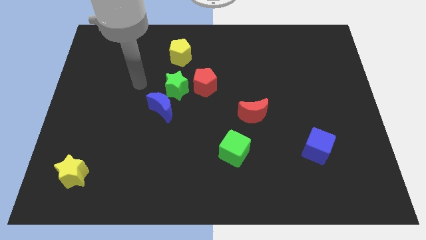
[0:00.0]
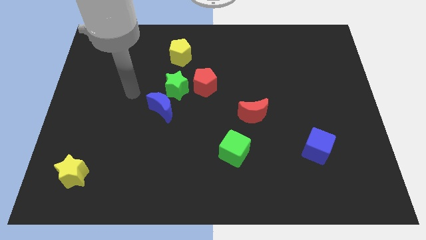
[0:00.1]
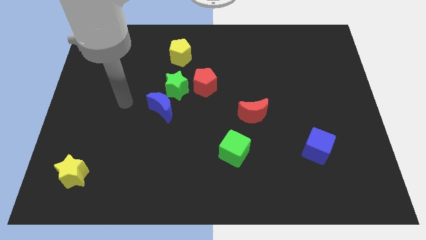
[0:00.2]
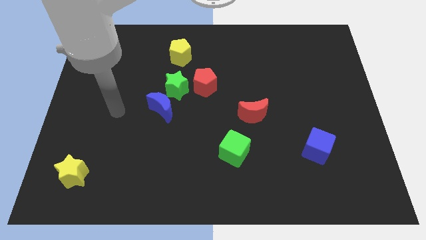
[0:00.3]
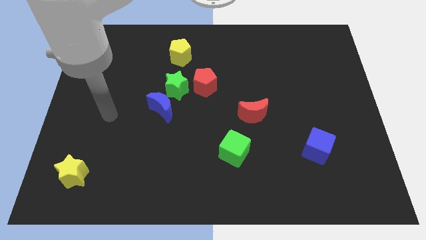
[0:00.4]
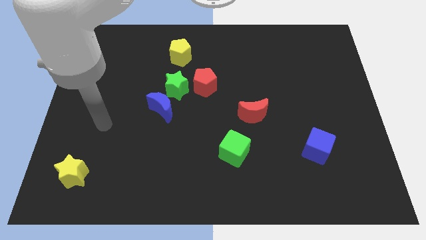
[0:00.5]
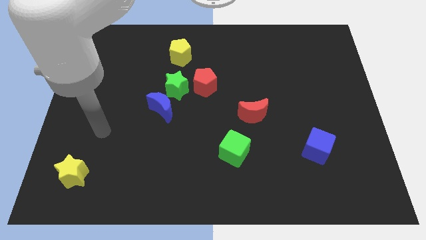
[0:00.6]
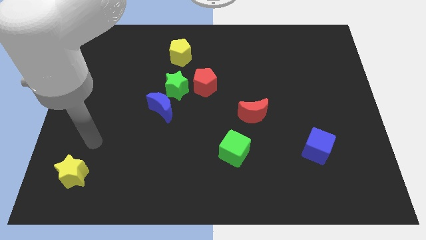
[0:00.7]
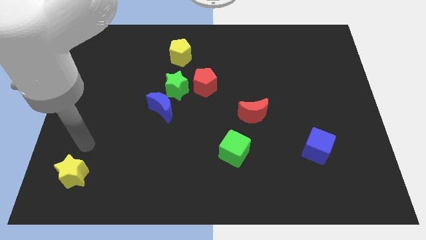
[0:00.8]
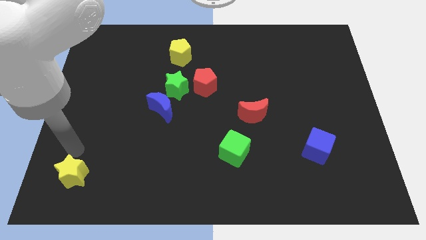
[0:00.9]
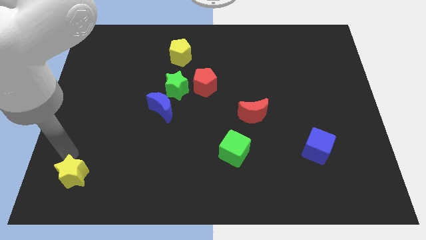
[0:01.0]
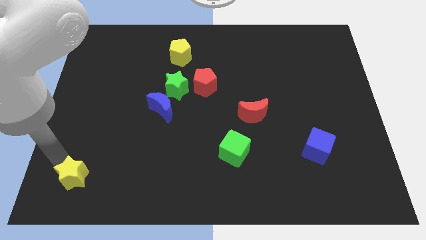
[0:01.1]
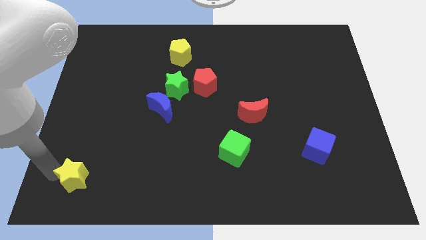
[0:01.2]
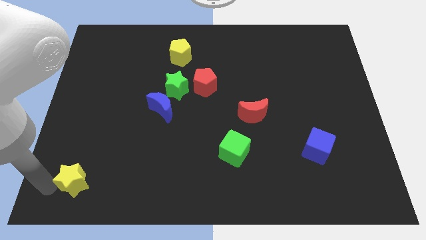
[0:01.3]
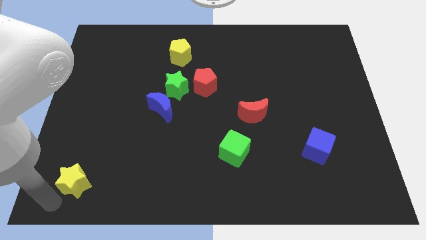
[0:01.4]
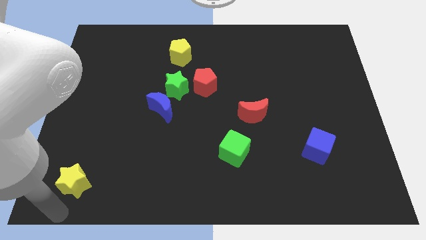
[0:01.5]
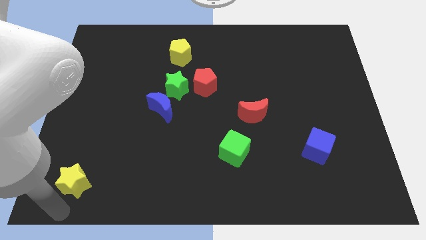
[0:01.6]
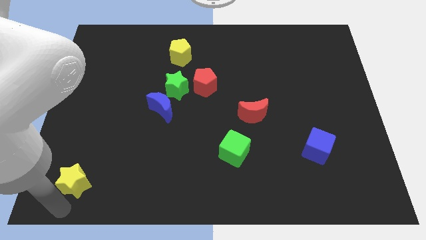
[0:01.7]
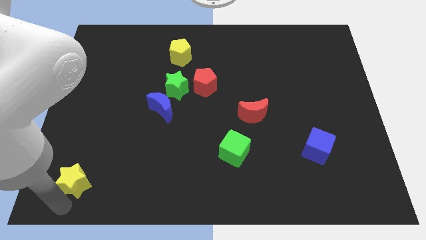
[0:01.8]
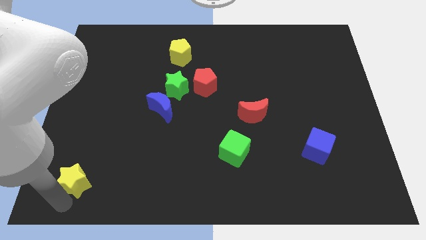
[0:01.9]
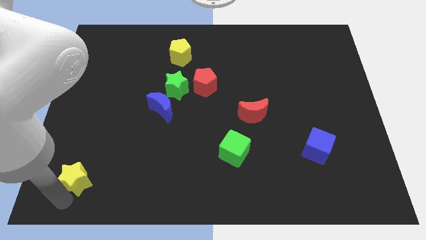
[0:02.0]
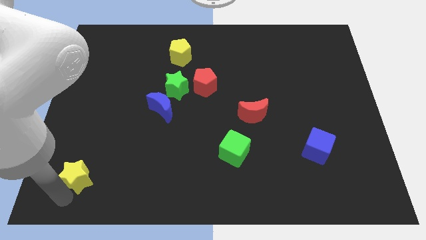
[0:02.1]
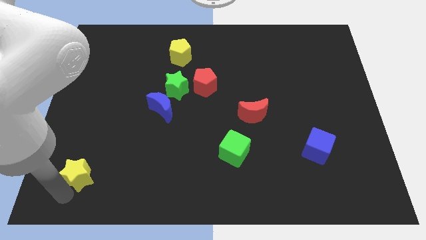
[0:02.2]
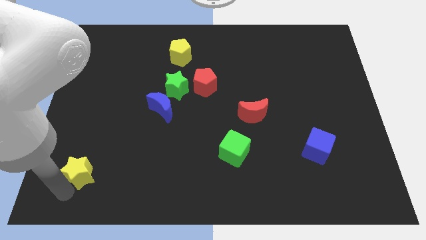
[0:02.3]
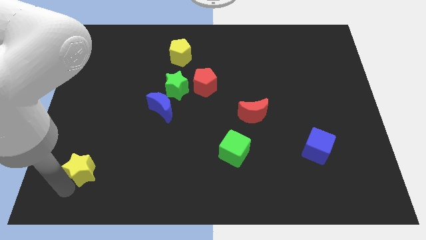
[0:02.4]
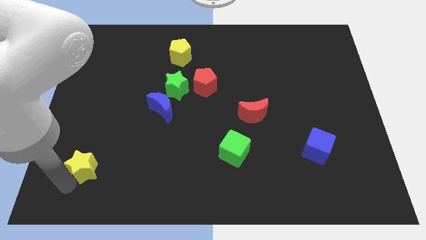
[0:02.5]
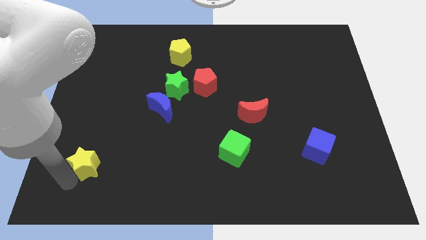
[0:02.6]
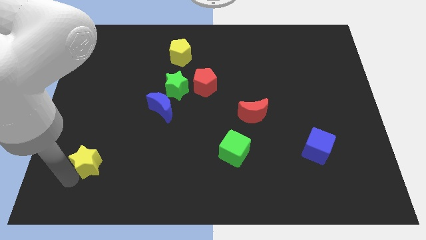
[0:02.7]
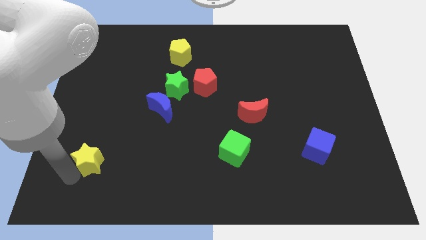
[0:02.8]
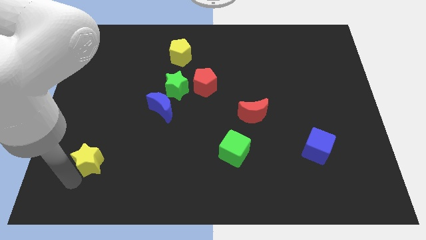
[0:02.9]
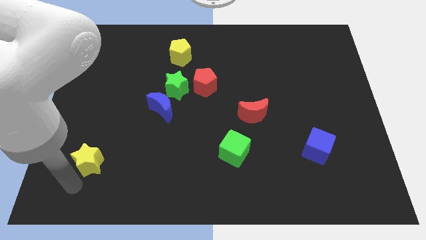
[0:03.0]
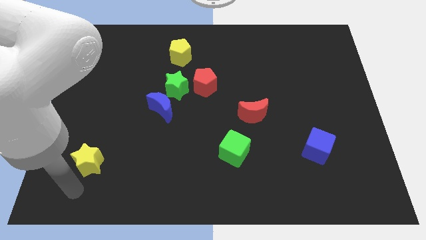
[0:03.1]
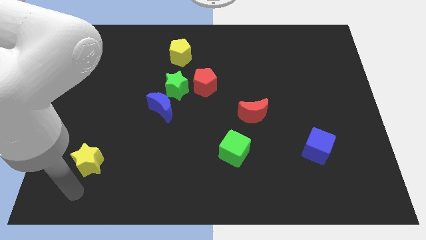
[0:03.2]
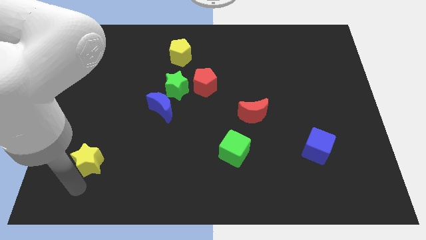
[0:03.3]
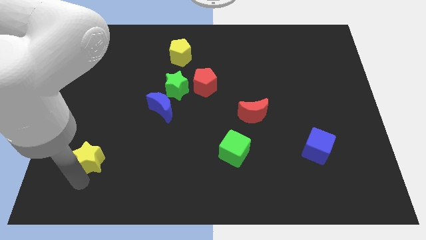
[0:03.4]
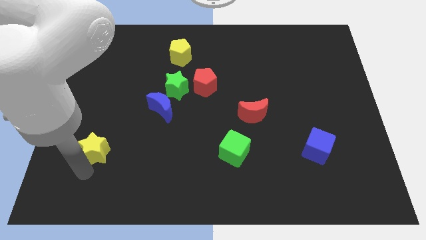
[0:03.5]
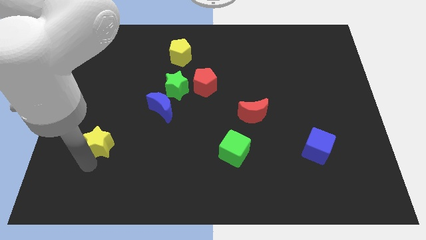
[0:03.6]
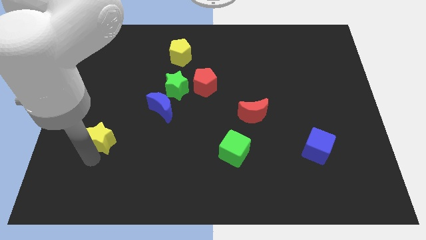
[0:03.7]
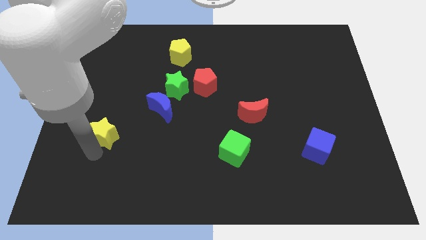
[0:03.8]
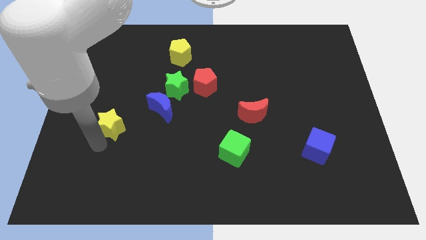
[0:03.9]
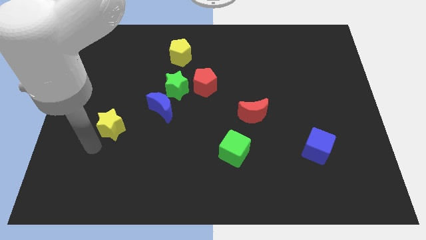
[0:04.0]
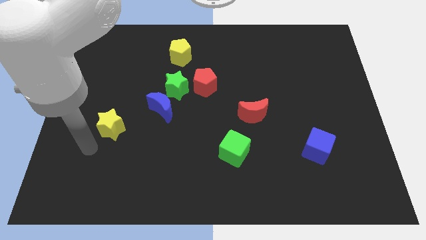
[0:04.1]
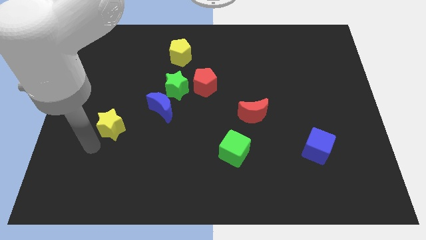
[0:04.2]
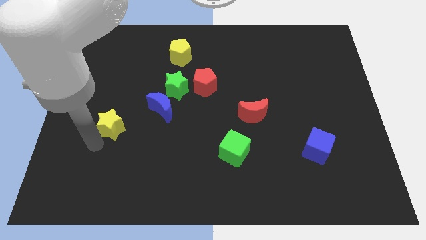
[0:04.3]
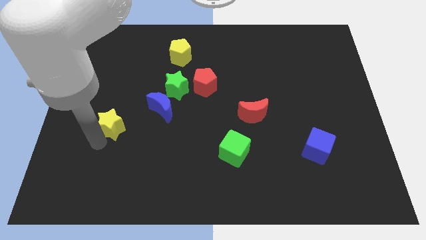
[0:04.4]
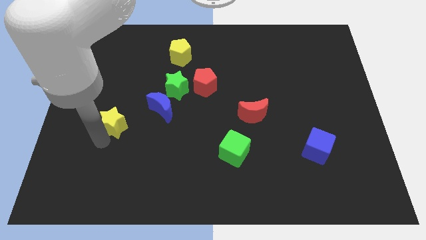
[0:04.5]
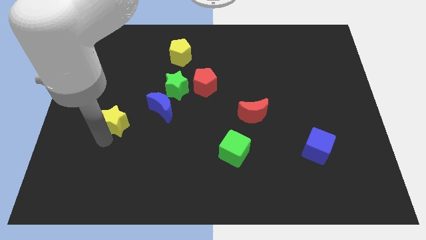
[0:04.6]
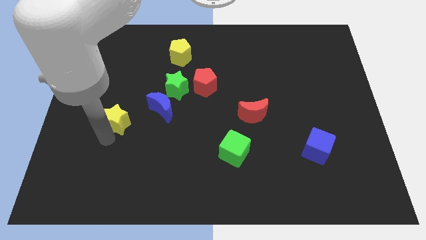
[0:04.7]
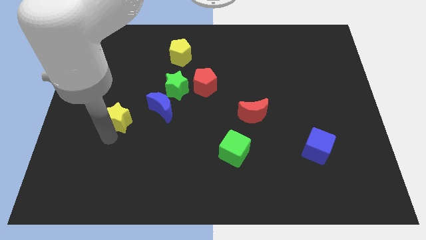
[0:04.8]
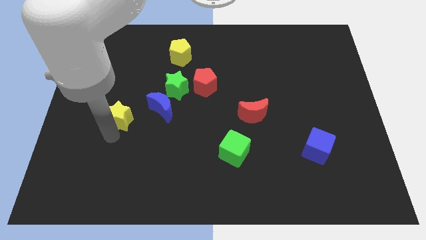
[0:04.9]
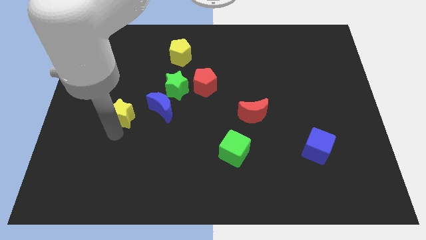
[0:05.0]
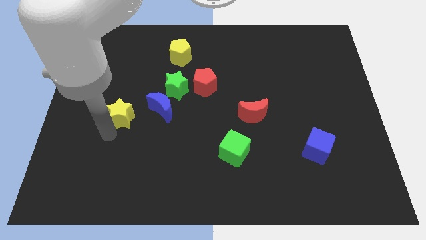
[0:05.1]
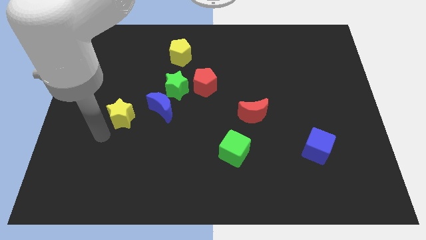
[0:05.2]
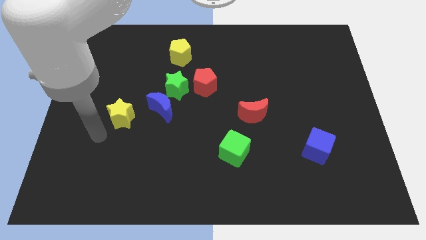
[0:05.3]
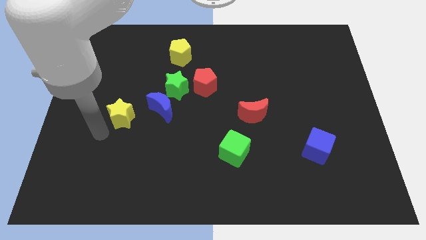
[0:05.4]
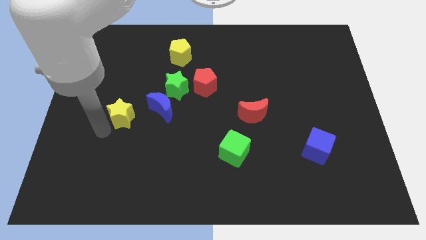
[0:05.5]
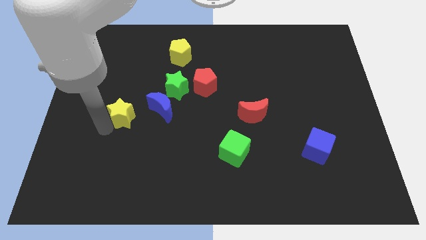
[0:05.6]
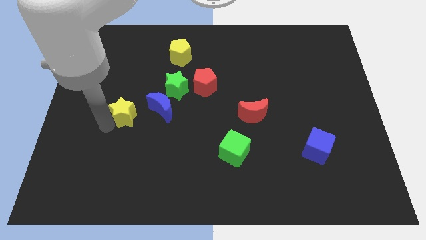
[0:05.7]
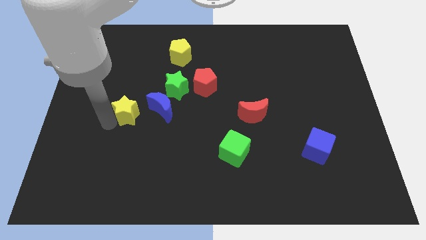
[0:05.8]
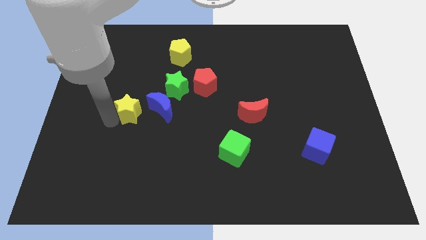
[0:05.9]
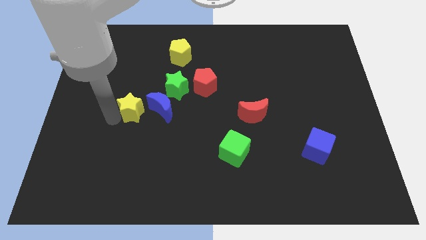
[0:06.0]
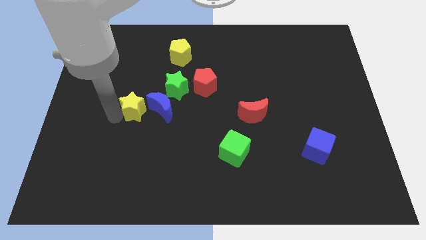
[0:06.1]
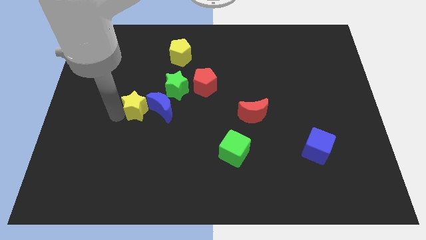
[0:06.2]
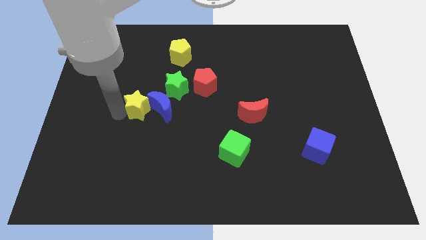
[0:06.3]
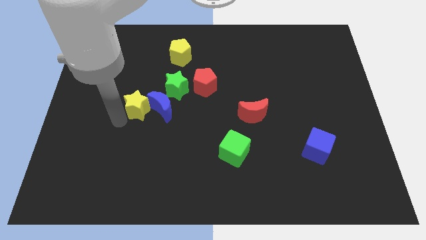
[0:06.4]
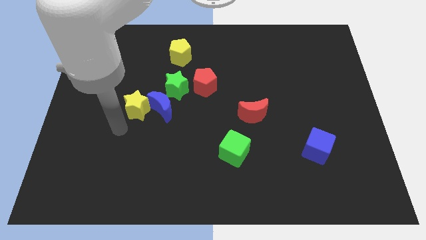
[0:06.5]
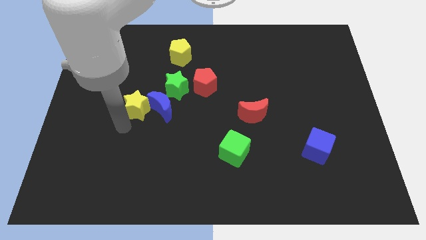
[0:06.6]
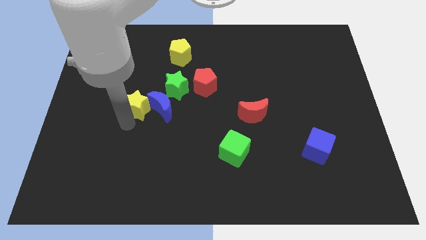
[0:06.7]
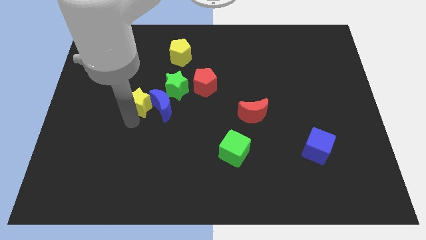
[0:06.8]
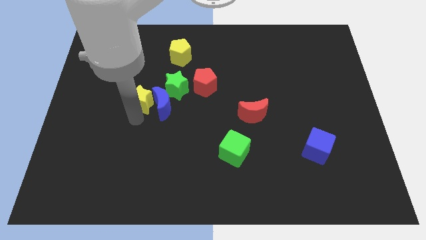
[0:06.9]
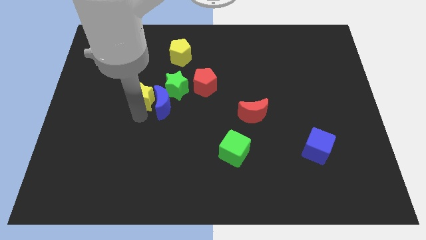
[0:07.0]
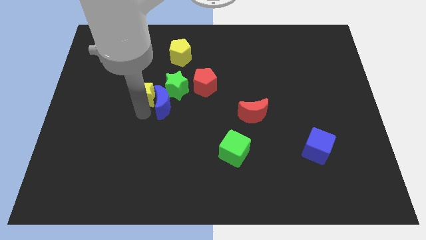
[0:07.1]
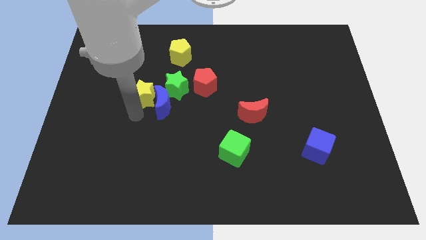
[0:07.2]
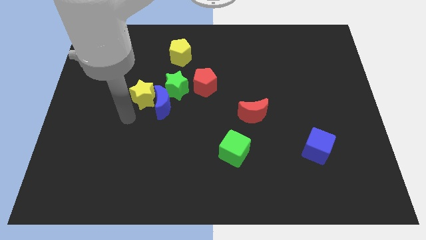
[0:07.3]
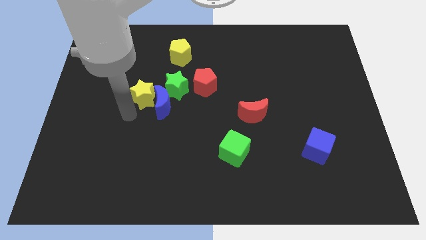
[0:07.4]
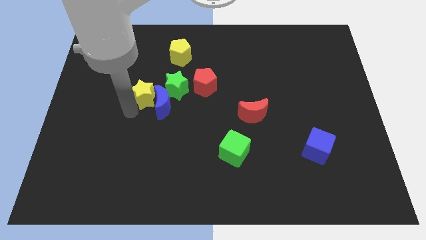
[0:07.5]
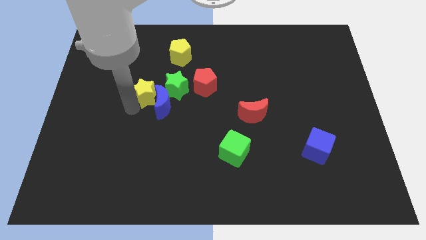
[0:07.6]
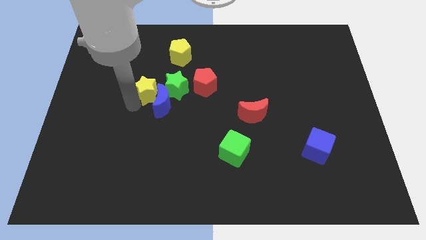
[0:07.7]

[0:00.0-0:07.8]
put the yellow star to the top side of the blue moon
